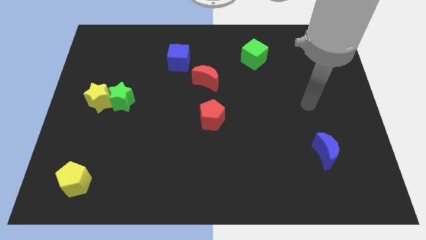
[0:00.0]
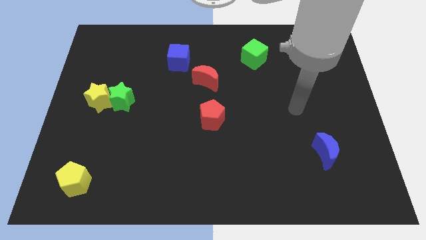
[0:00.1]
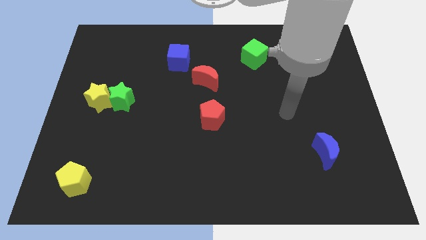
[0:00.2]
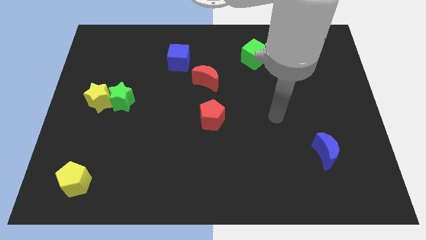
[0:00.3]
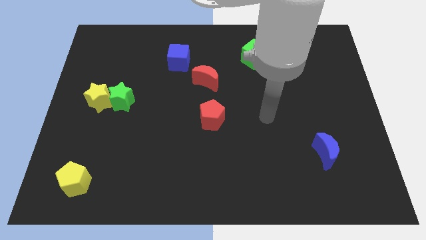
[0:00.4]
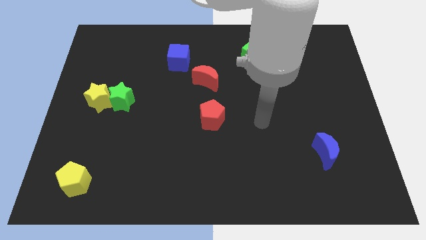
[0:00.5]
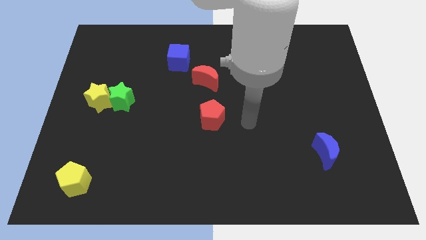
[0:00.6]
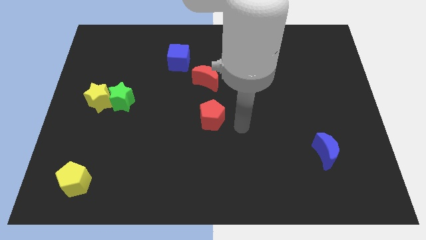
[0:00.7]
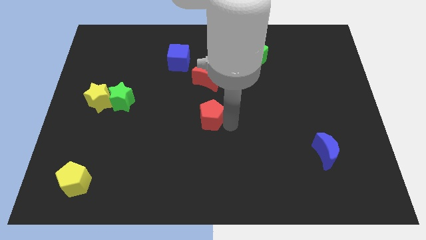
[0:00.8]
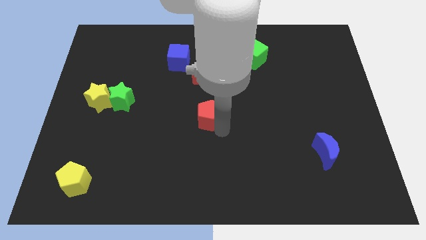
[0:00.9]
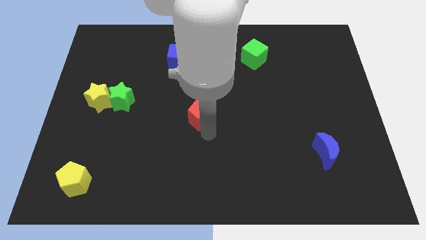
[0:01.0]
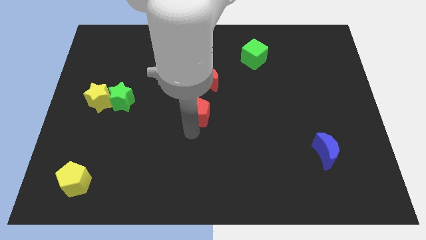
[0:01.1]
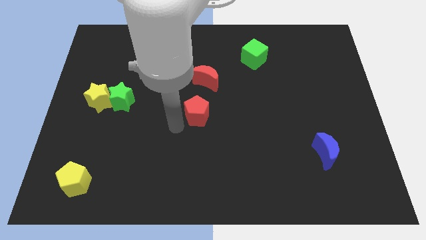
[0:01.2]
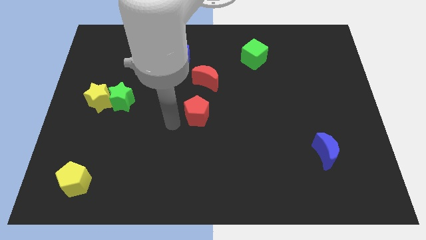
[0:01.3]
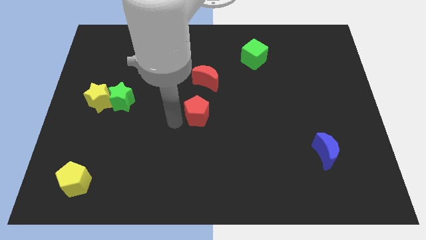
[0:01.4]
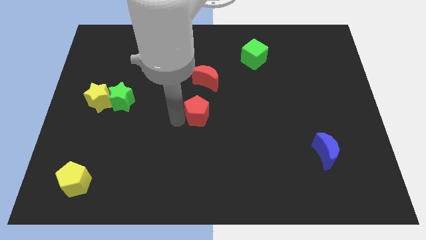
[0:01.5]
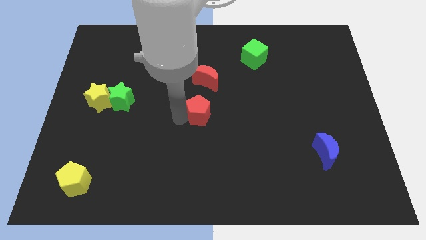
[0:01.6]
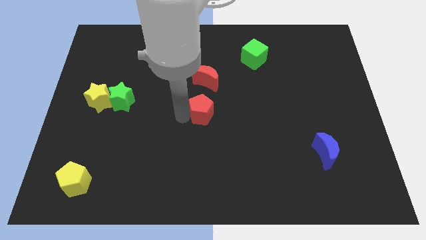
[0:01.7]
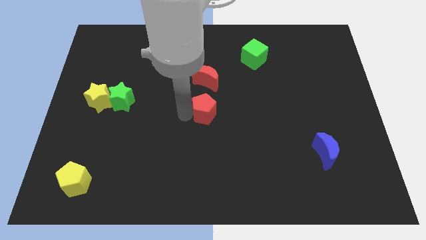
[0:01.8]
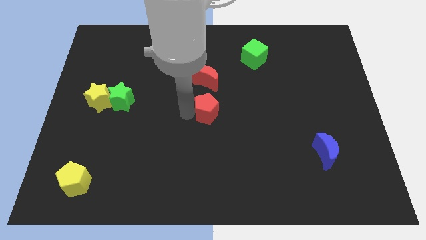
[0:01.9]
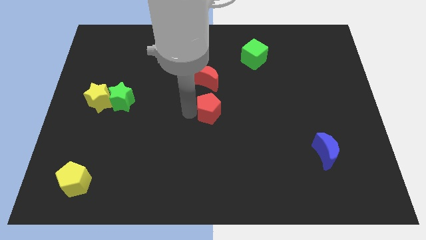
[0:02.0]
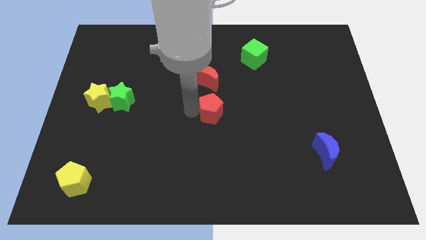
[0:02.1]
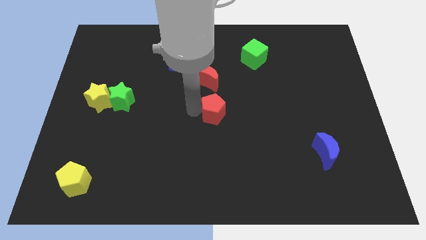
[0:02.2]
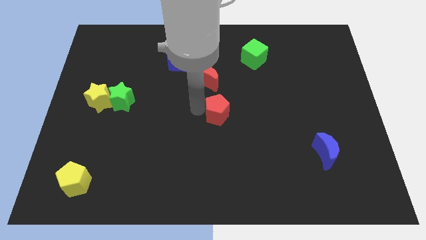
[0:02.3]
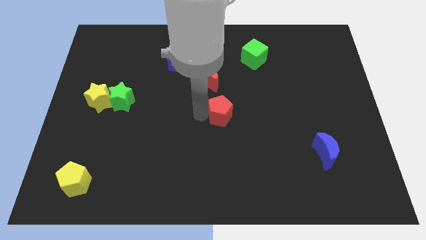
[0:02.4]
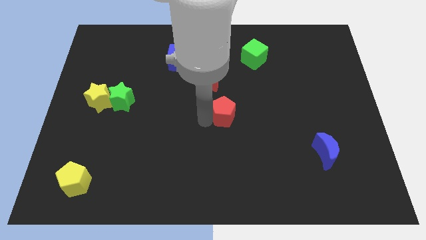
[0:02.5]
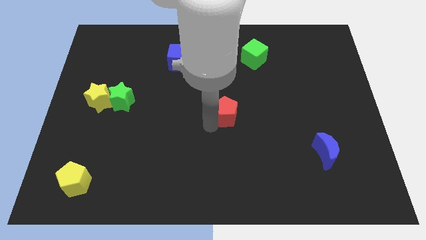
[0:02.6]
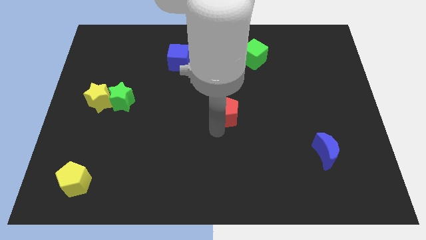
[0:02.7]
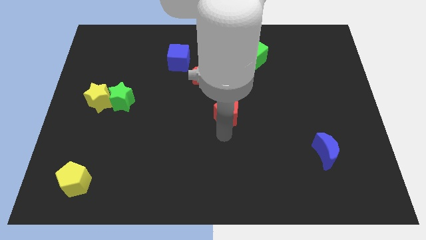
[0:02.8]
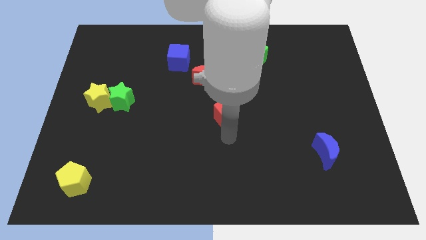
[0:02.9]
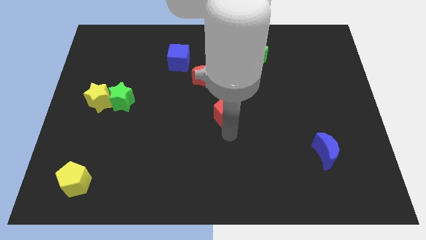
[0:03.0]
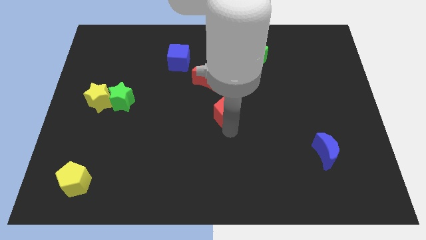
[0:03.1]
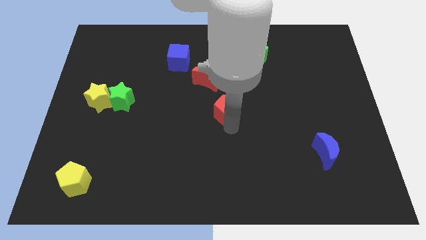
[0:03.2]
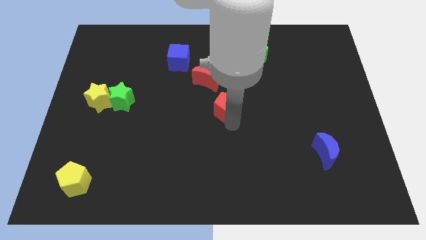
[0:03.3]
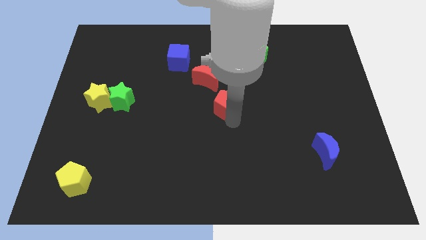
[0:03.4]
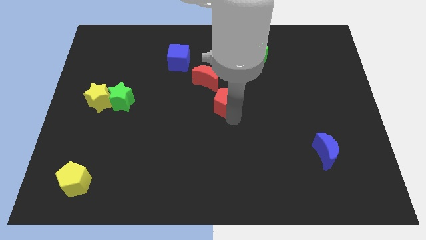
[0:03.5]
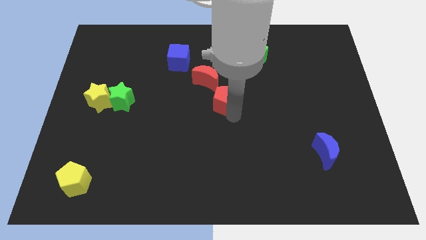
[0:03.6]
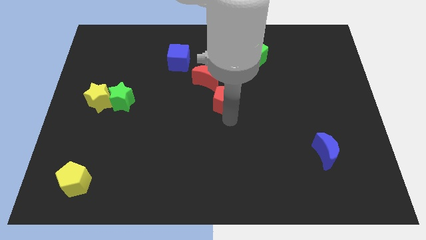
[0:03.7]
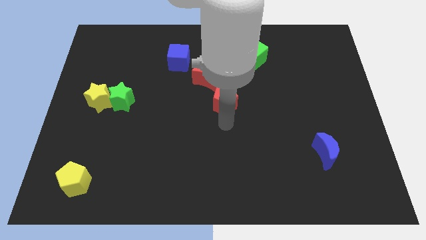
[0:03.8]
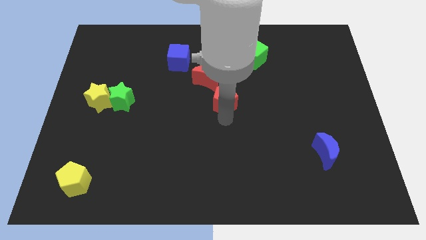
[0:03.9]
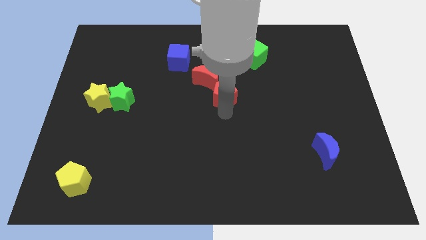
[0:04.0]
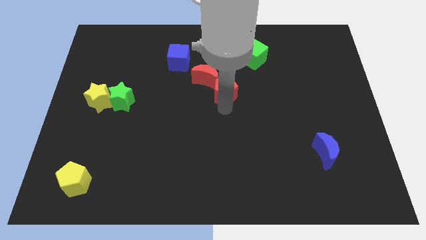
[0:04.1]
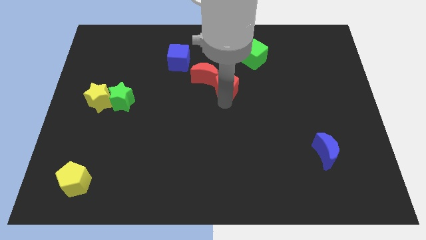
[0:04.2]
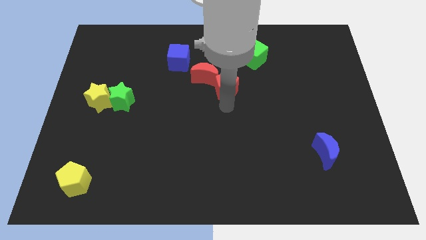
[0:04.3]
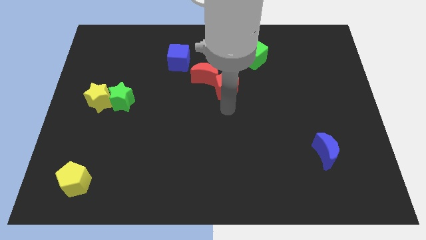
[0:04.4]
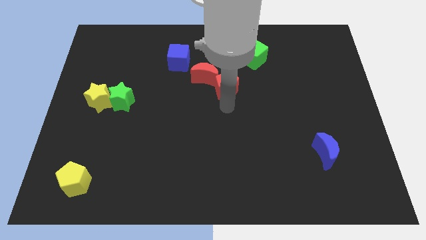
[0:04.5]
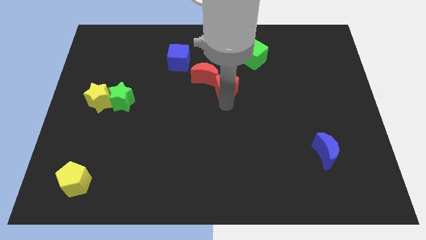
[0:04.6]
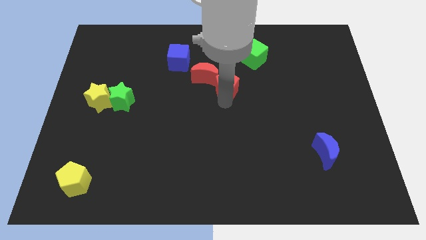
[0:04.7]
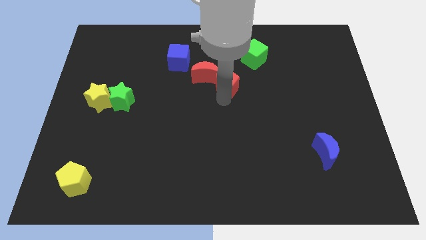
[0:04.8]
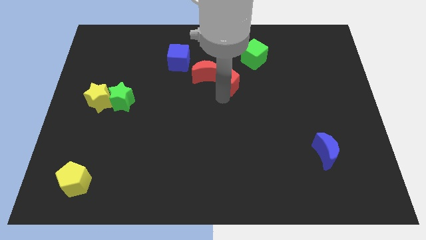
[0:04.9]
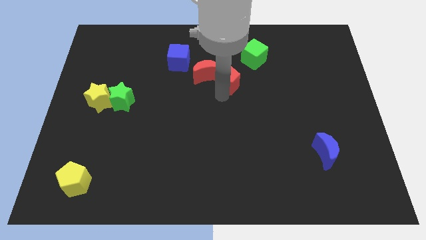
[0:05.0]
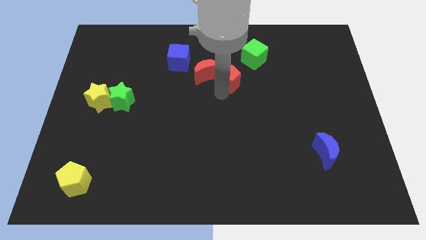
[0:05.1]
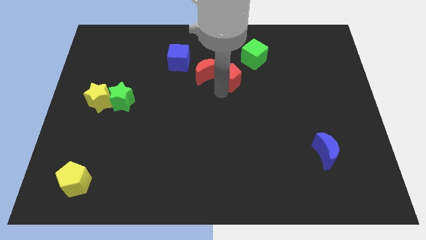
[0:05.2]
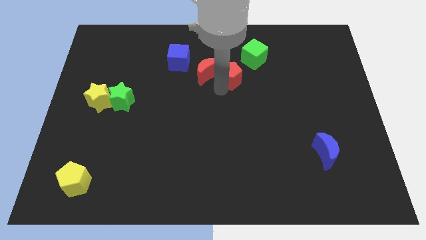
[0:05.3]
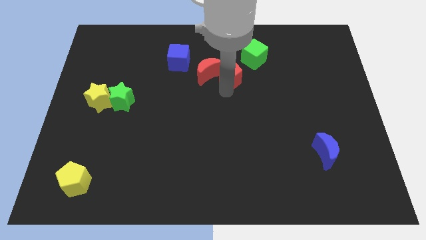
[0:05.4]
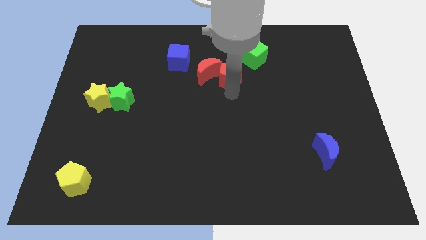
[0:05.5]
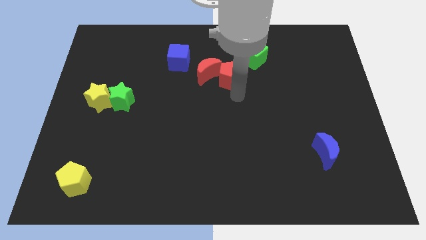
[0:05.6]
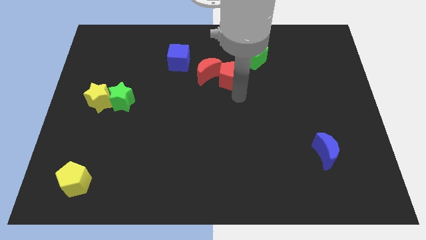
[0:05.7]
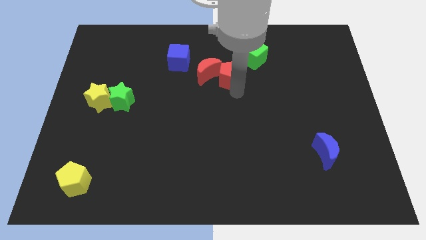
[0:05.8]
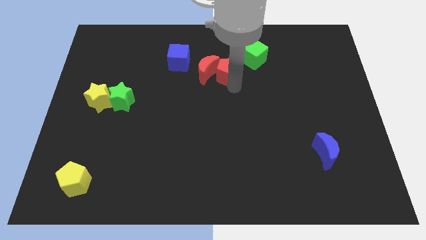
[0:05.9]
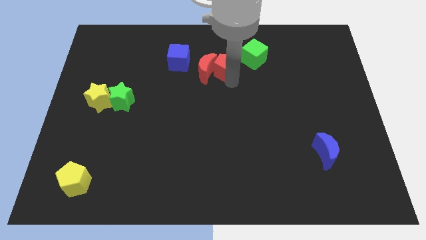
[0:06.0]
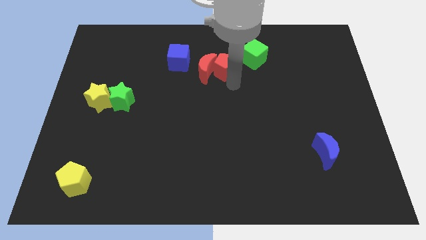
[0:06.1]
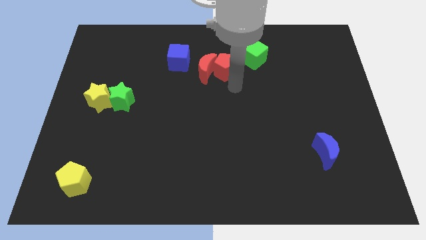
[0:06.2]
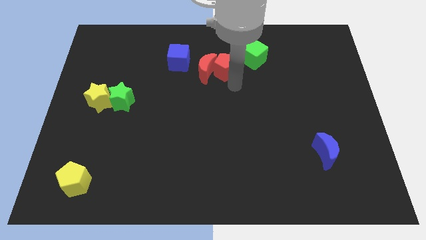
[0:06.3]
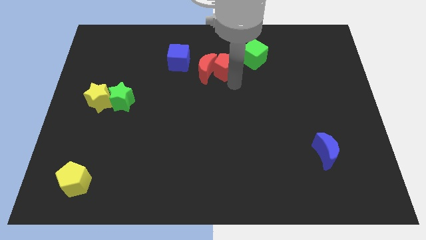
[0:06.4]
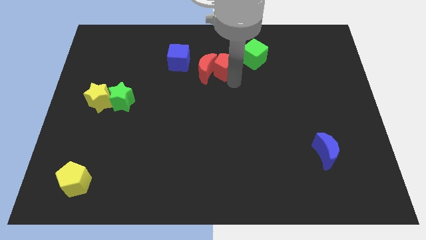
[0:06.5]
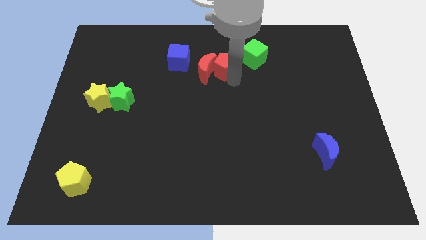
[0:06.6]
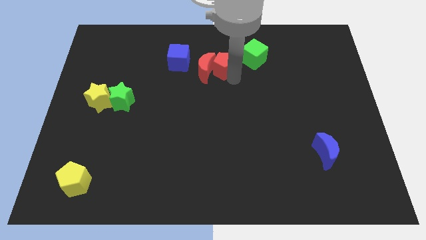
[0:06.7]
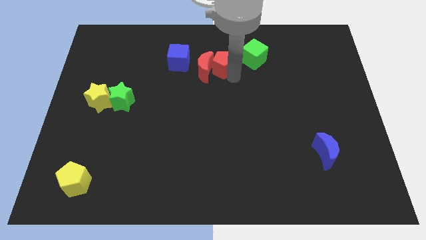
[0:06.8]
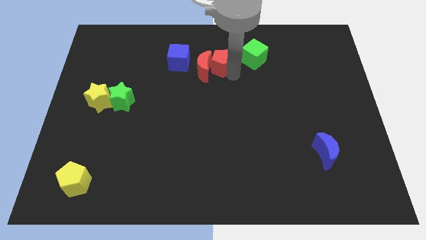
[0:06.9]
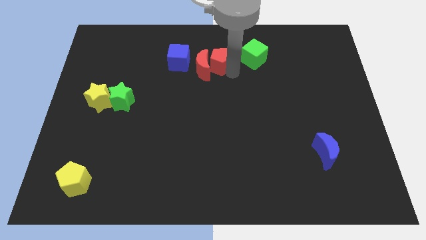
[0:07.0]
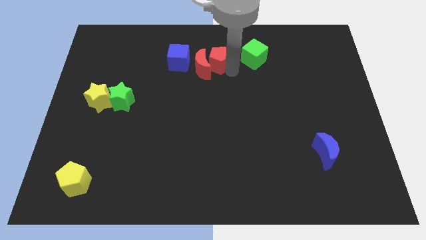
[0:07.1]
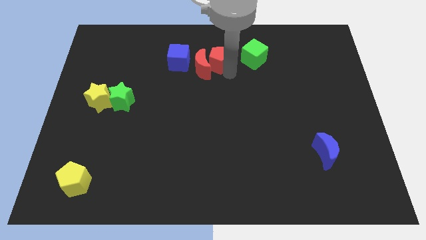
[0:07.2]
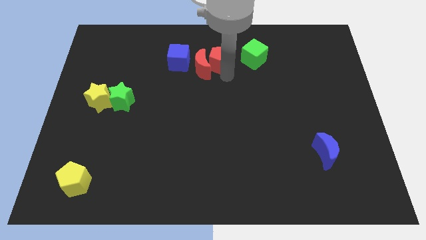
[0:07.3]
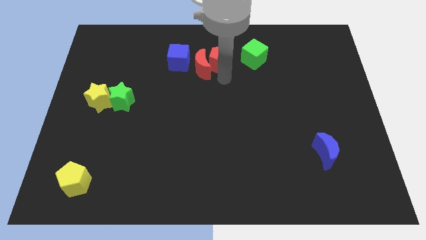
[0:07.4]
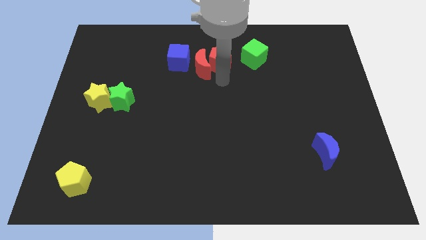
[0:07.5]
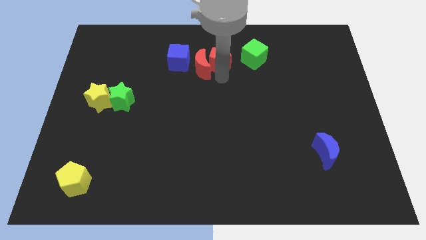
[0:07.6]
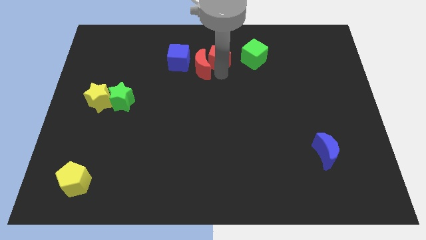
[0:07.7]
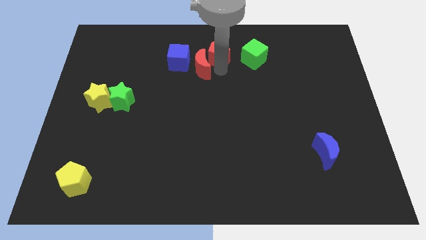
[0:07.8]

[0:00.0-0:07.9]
push the red pentagon to the top
